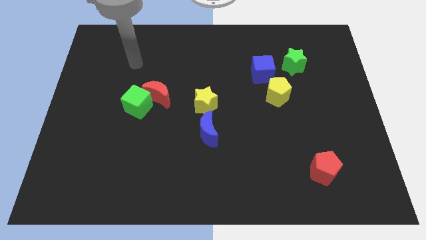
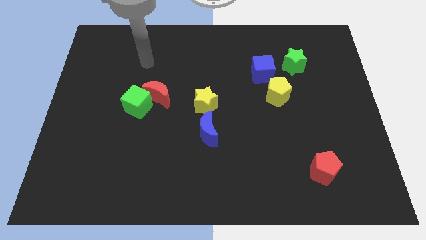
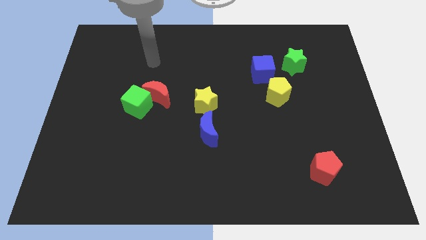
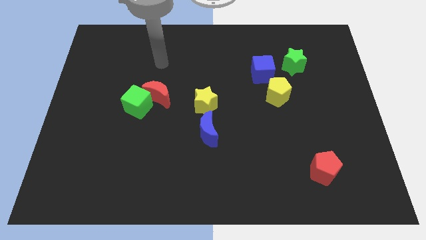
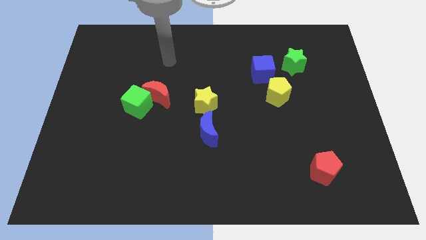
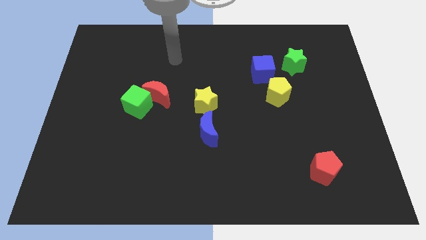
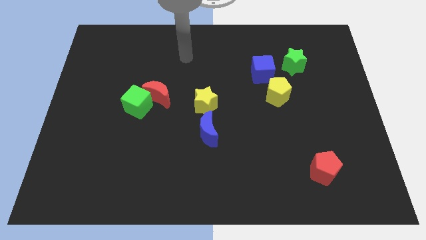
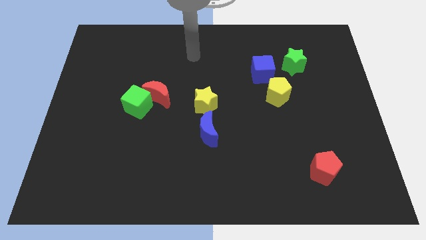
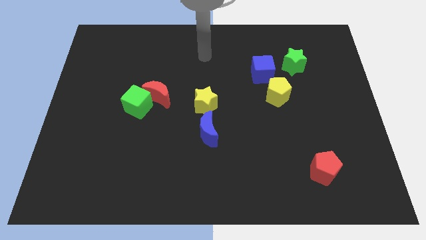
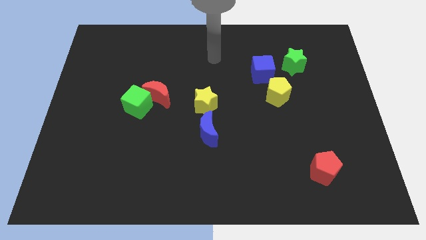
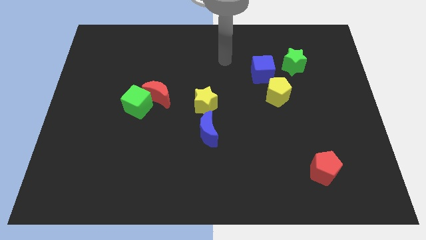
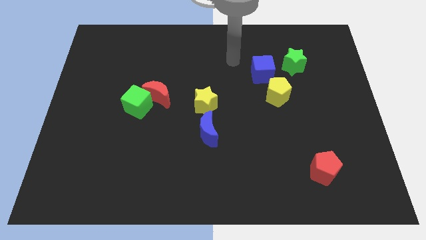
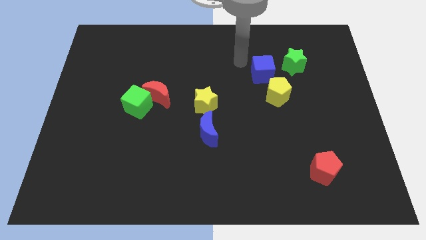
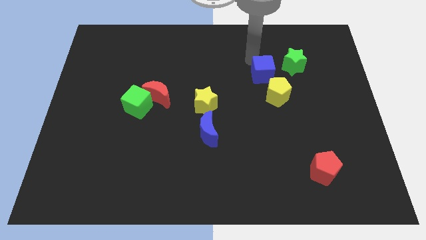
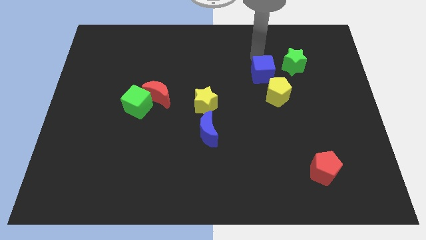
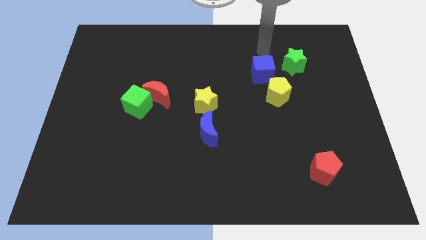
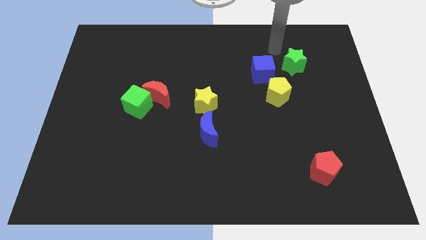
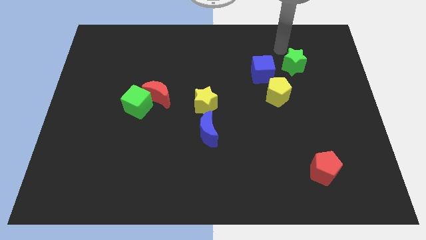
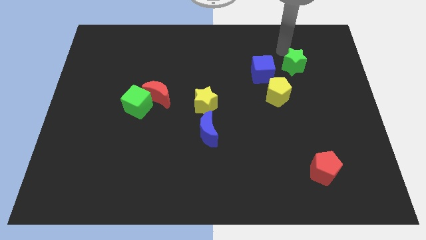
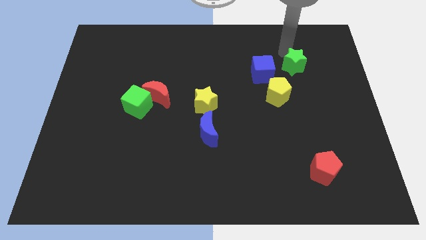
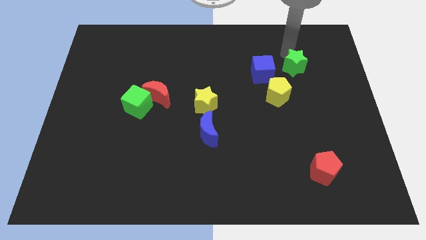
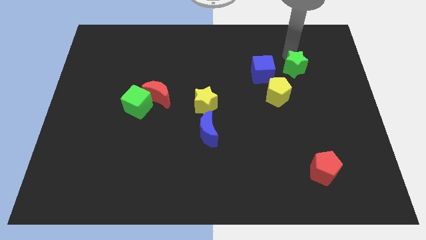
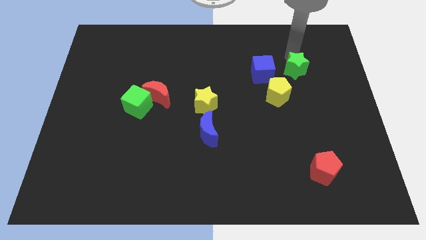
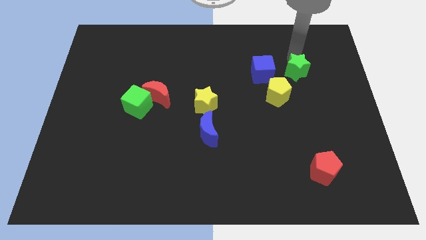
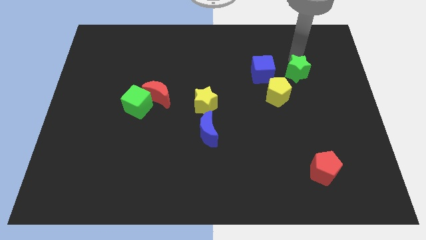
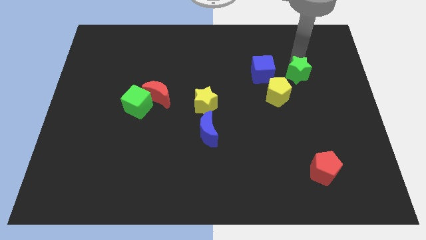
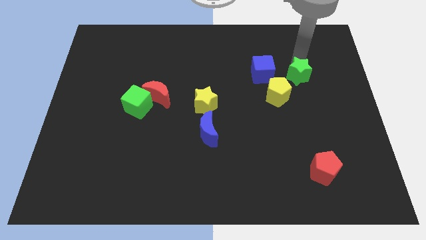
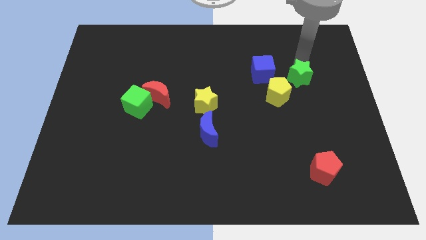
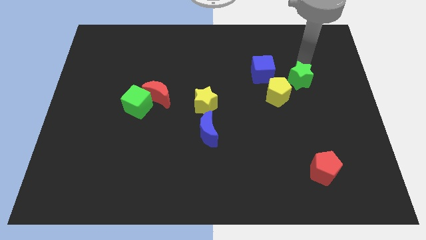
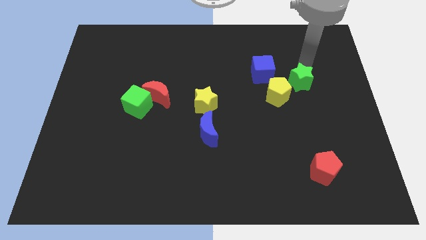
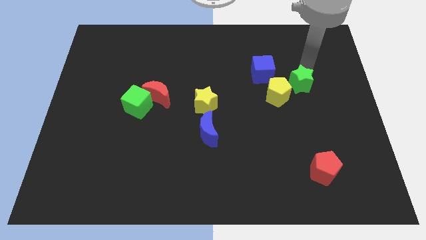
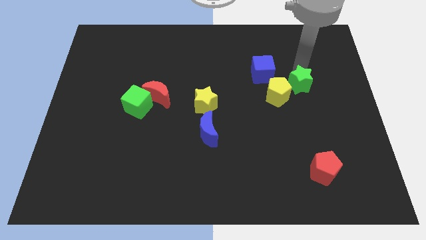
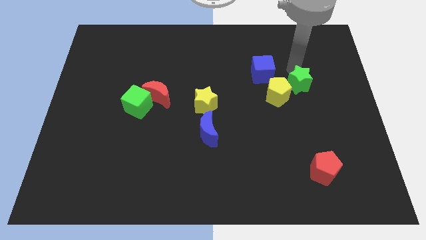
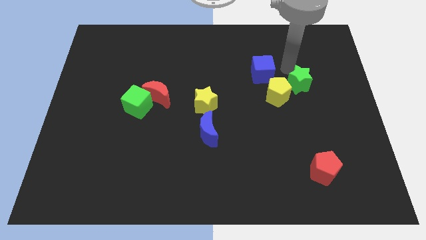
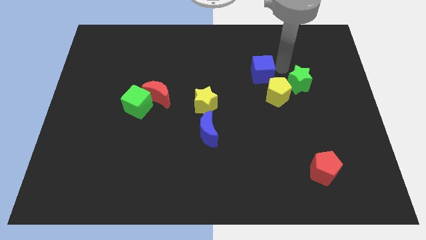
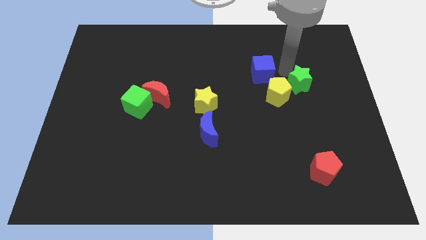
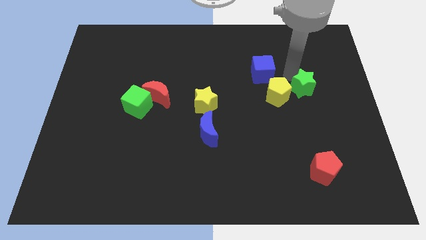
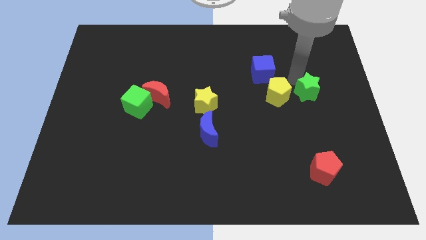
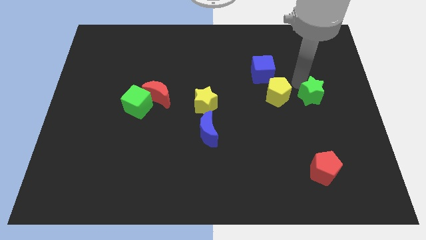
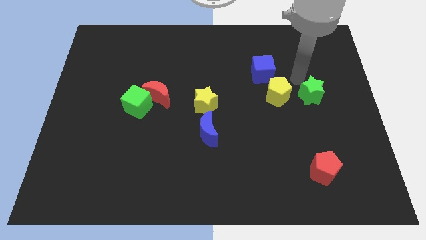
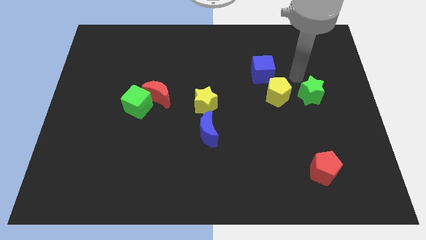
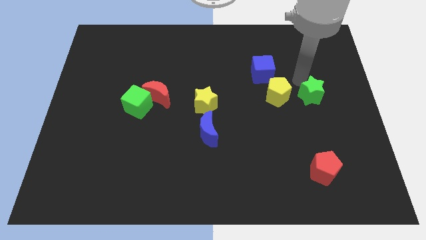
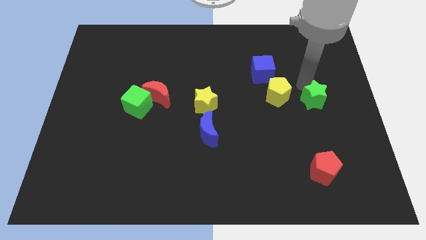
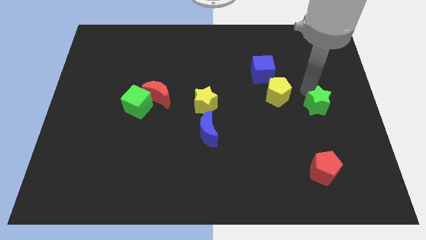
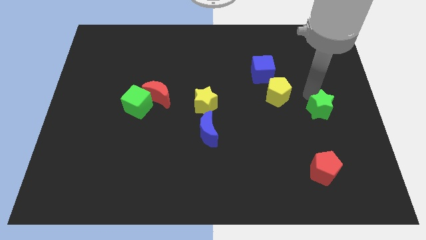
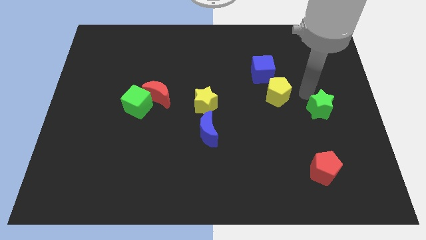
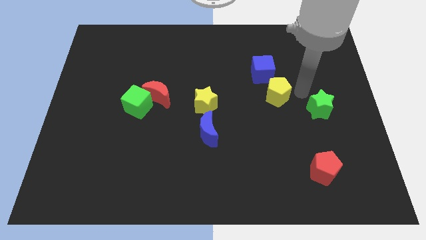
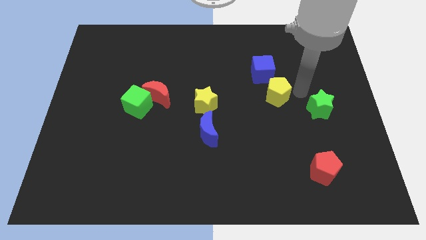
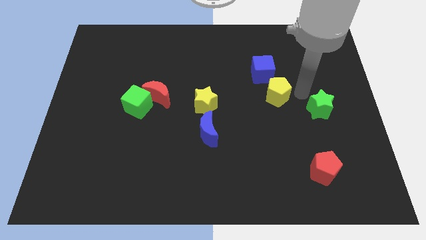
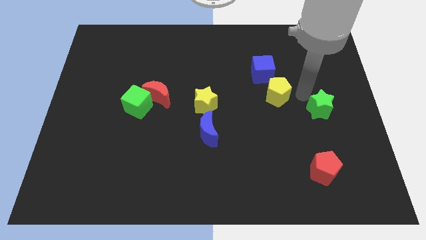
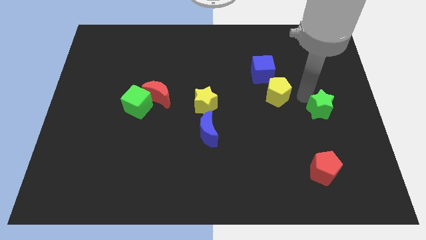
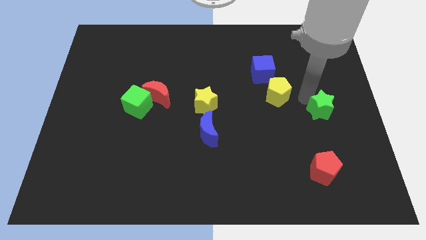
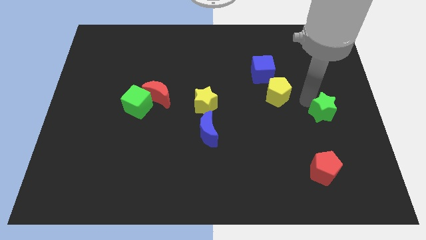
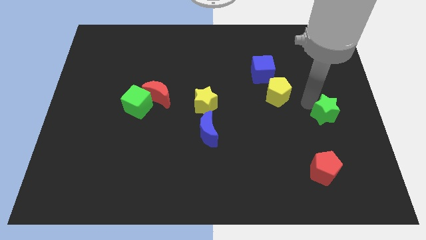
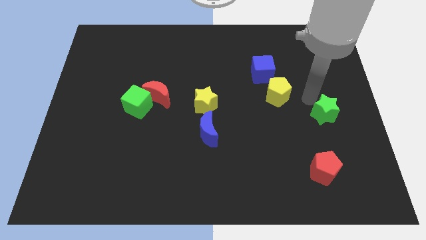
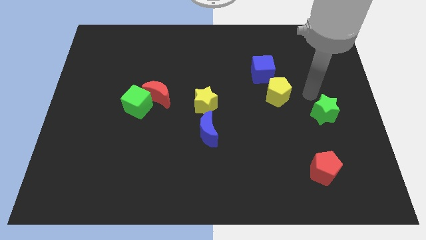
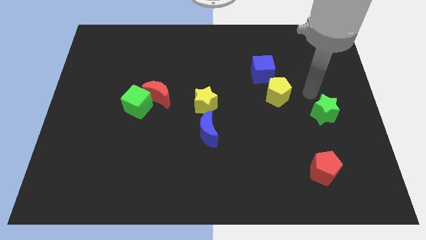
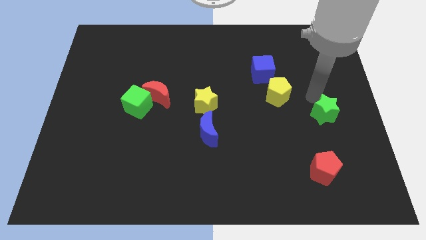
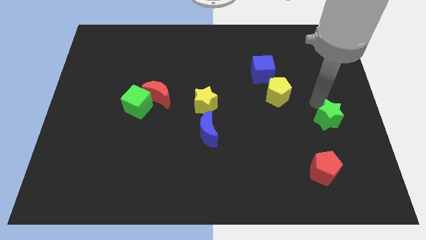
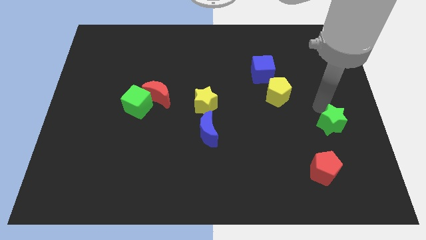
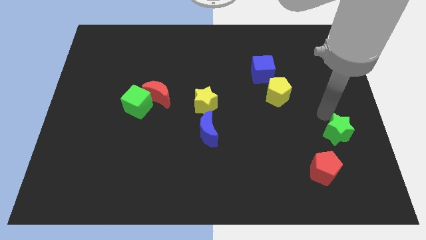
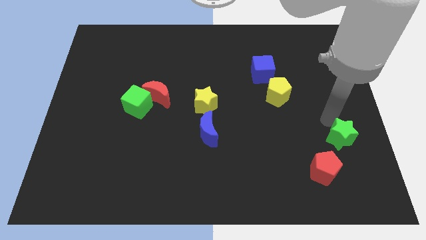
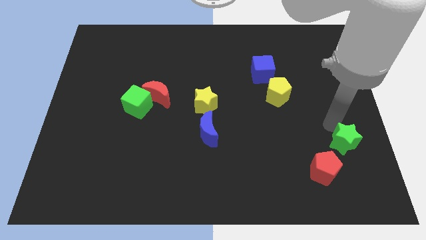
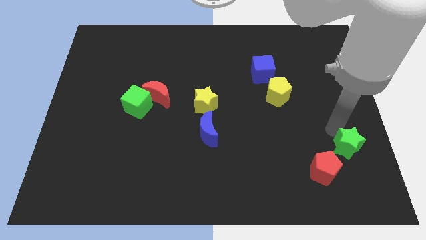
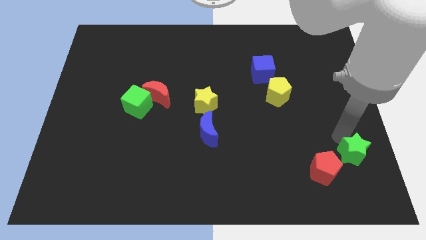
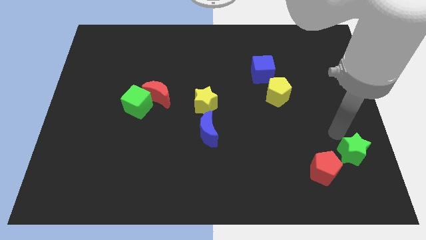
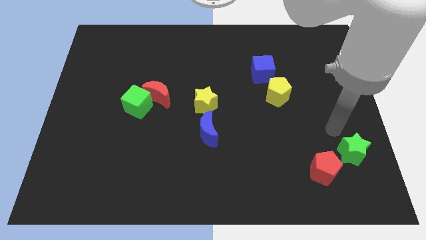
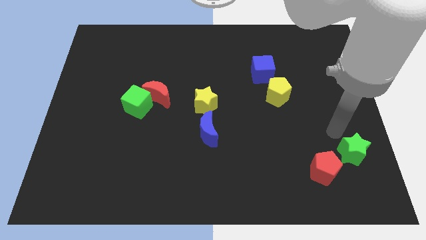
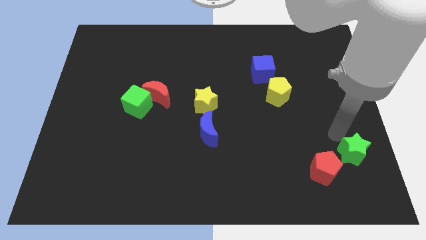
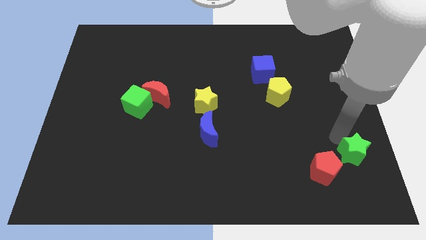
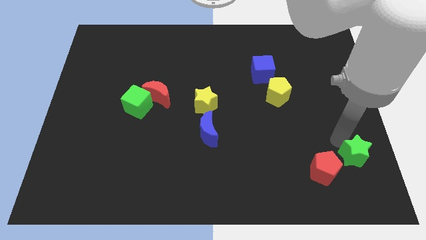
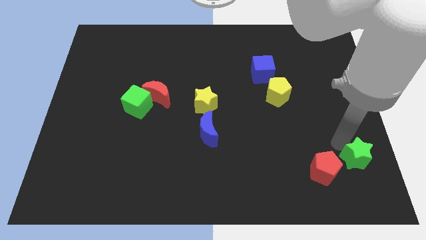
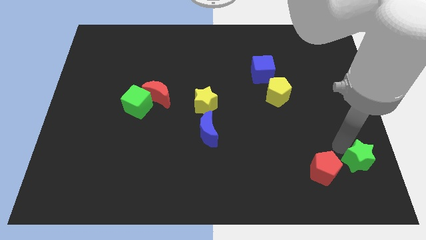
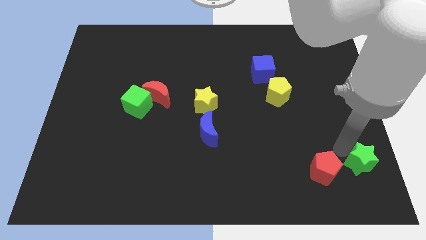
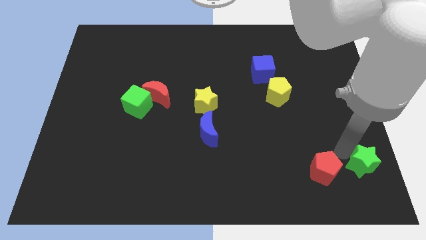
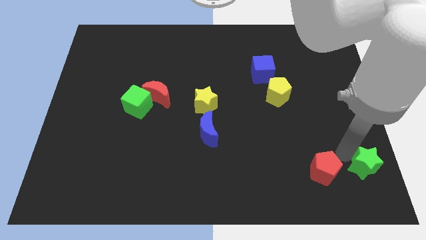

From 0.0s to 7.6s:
slide the green star to the lower right corner
